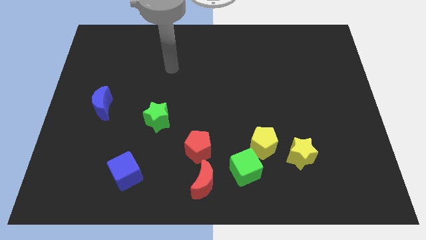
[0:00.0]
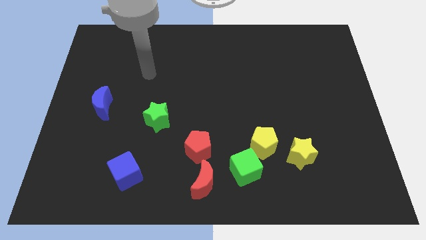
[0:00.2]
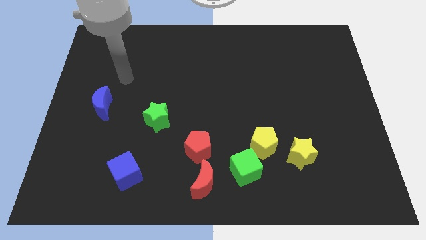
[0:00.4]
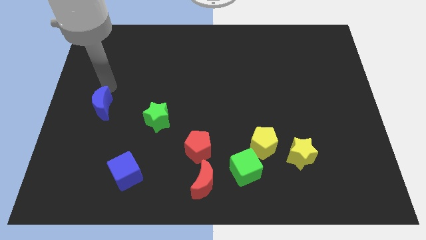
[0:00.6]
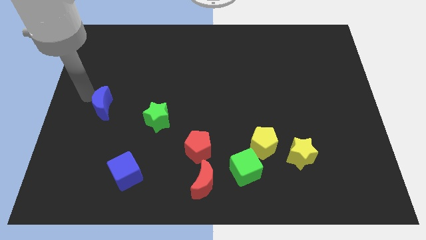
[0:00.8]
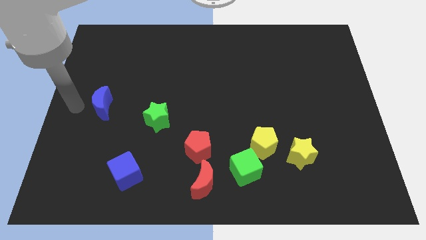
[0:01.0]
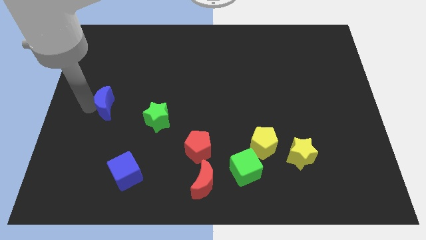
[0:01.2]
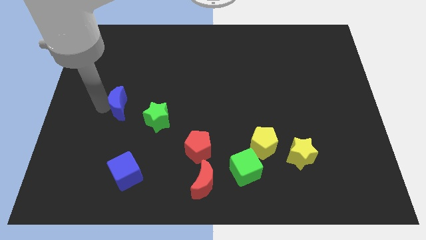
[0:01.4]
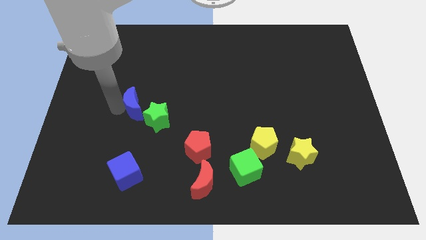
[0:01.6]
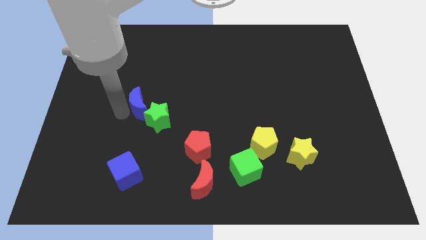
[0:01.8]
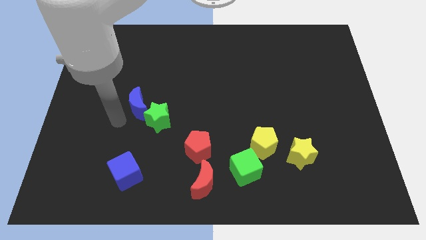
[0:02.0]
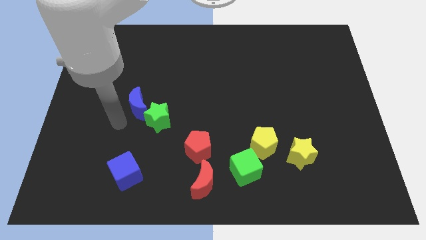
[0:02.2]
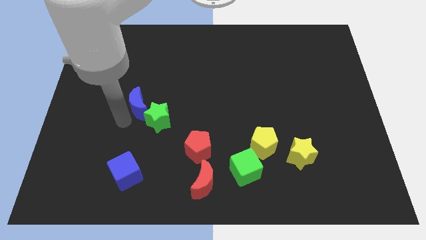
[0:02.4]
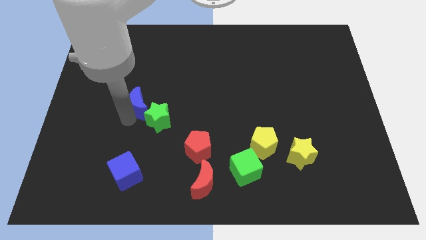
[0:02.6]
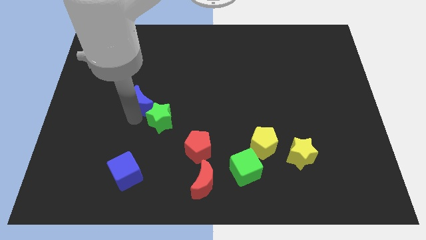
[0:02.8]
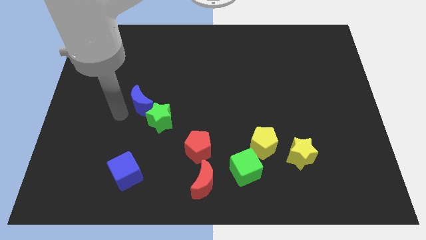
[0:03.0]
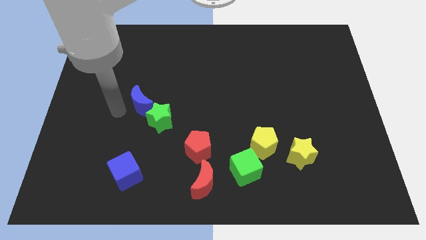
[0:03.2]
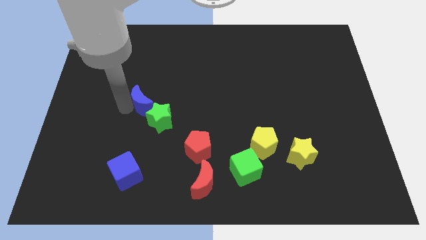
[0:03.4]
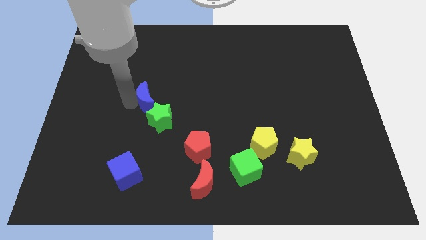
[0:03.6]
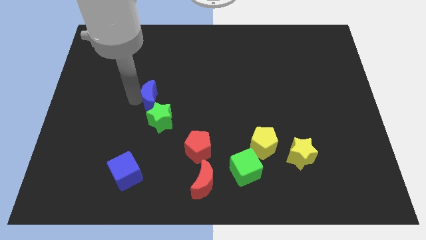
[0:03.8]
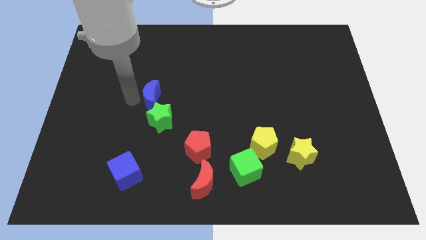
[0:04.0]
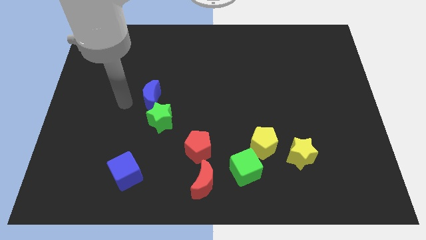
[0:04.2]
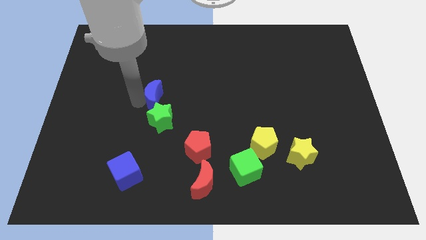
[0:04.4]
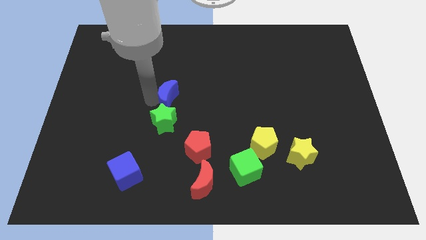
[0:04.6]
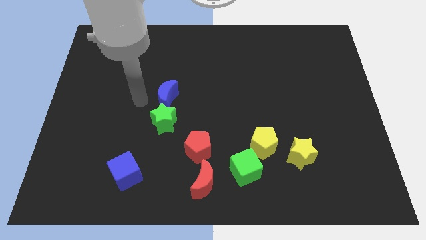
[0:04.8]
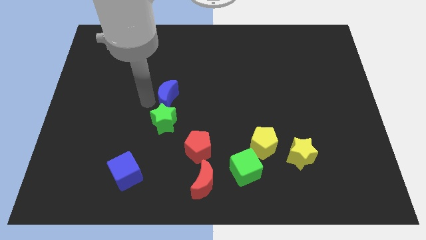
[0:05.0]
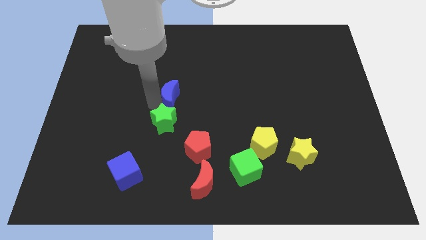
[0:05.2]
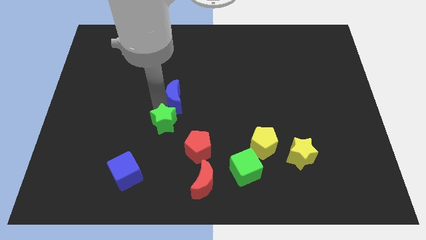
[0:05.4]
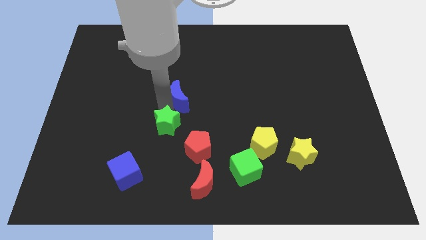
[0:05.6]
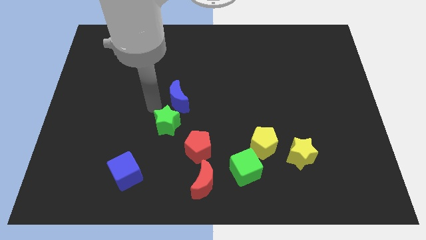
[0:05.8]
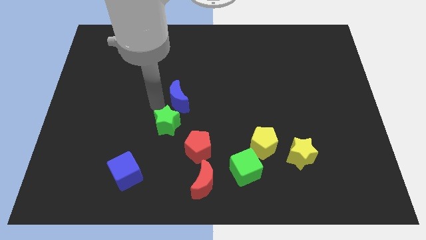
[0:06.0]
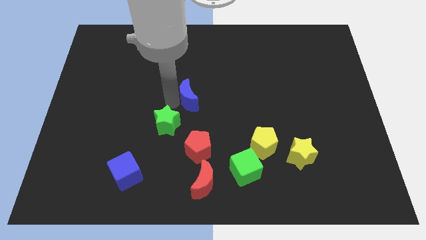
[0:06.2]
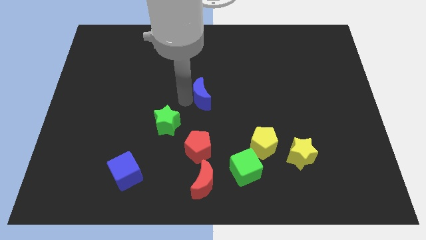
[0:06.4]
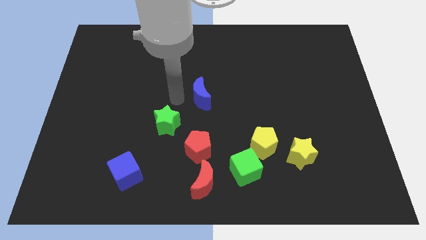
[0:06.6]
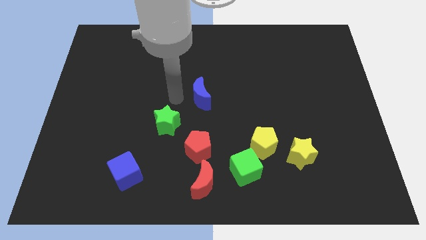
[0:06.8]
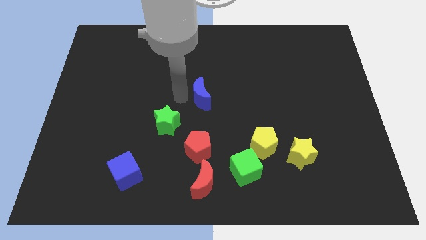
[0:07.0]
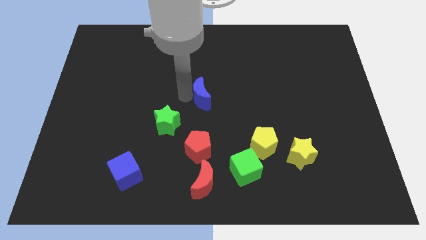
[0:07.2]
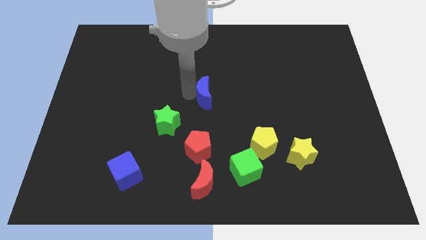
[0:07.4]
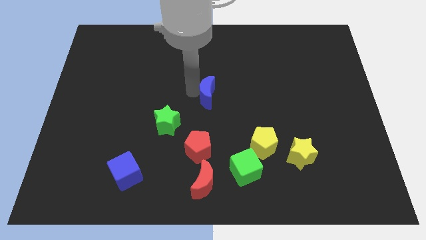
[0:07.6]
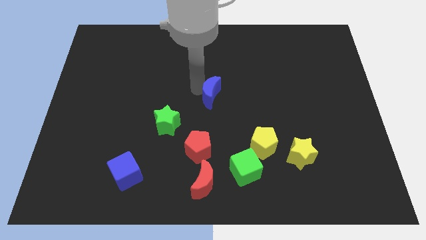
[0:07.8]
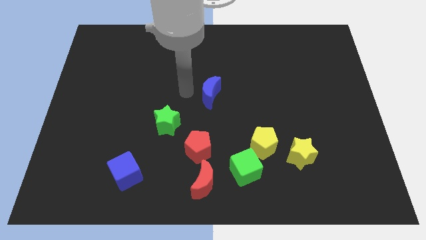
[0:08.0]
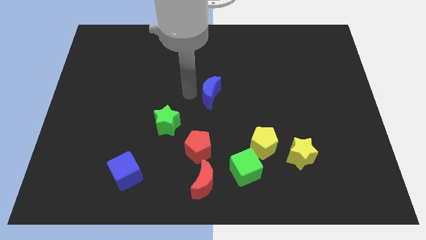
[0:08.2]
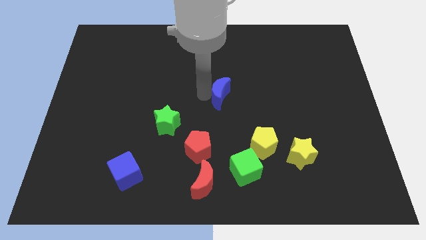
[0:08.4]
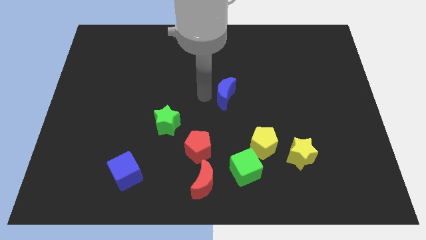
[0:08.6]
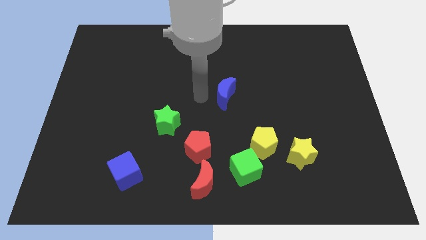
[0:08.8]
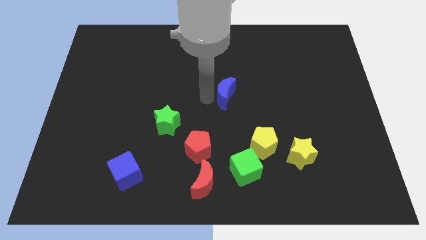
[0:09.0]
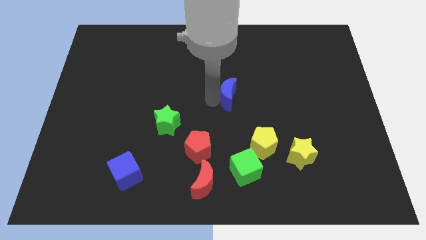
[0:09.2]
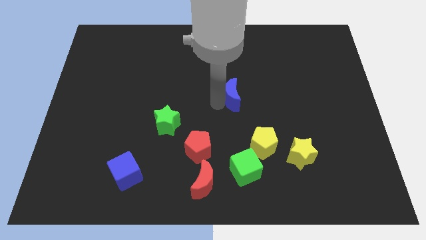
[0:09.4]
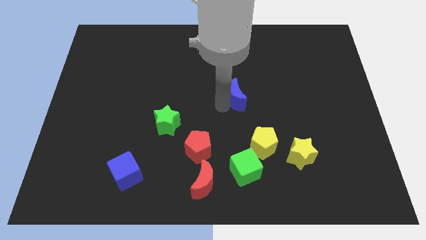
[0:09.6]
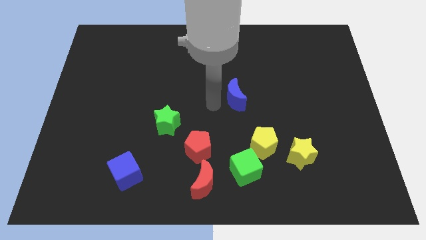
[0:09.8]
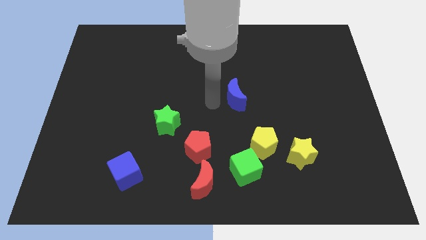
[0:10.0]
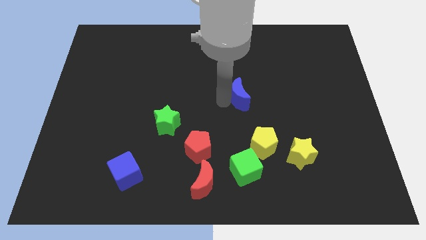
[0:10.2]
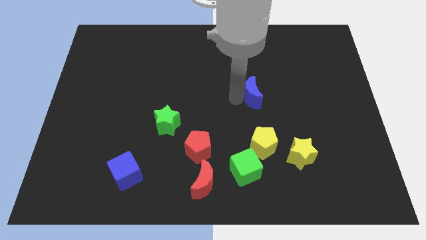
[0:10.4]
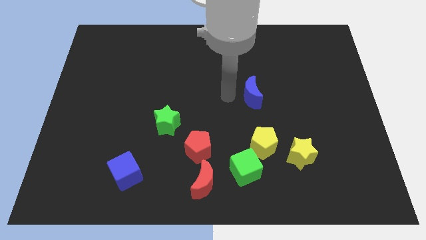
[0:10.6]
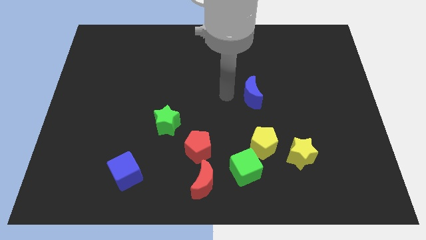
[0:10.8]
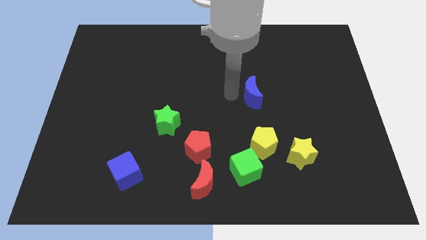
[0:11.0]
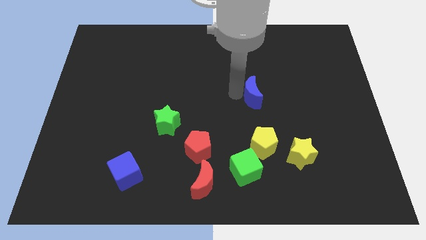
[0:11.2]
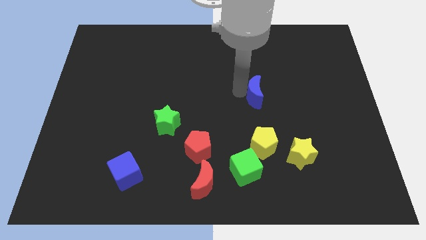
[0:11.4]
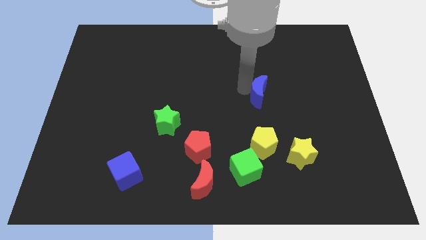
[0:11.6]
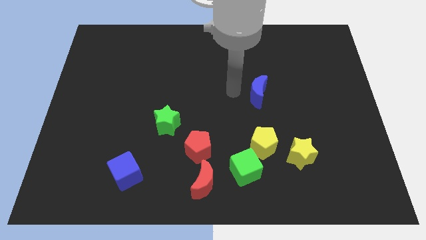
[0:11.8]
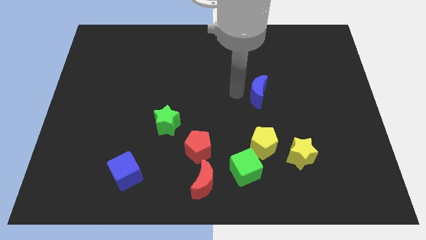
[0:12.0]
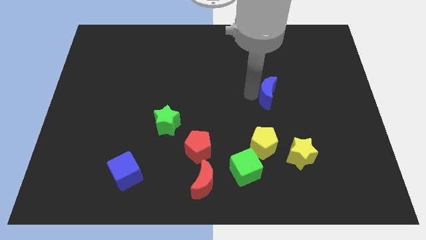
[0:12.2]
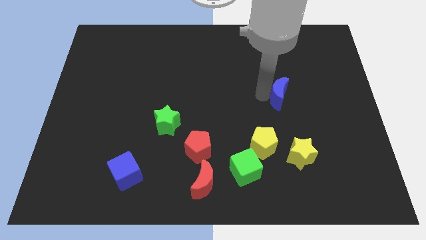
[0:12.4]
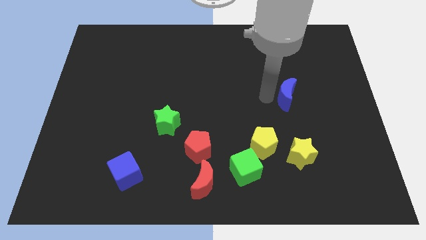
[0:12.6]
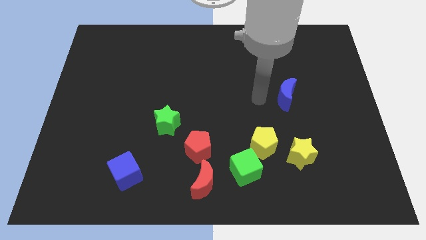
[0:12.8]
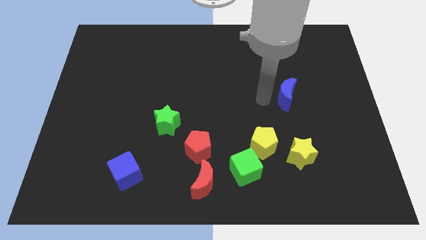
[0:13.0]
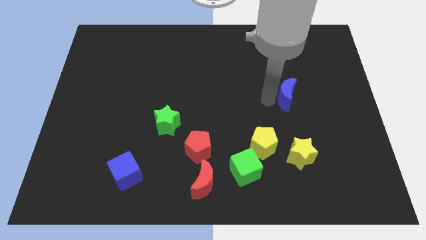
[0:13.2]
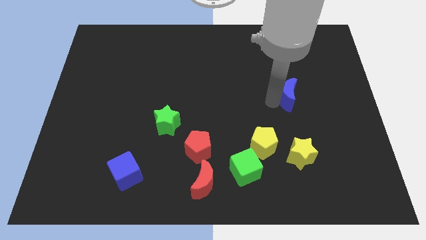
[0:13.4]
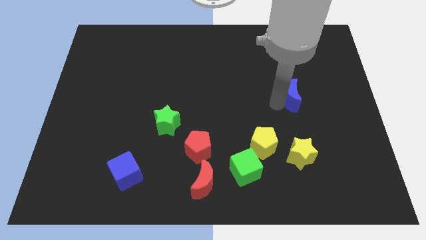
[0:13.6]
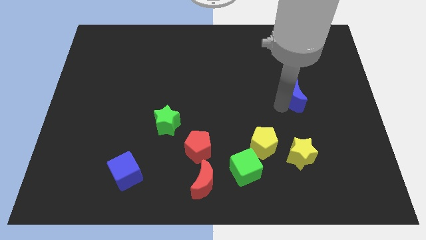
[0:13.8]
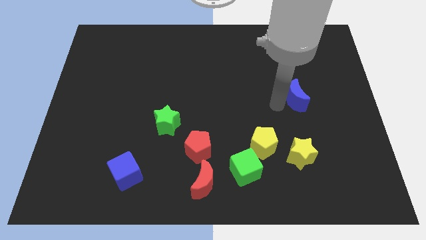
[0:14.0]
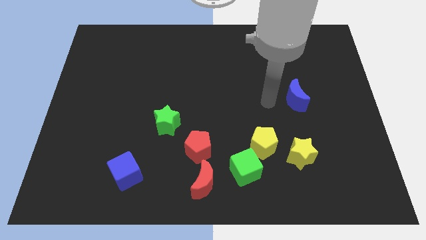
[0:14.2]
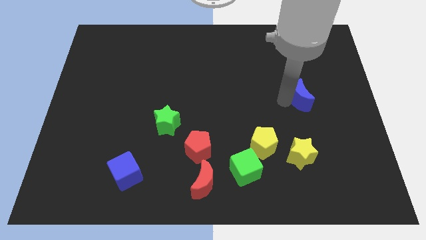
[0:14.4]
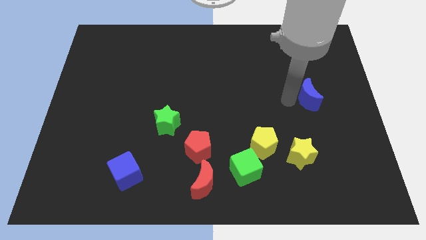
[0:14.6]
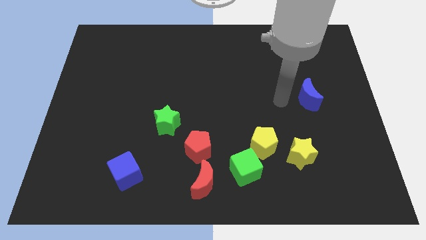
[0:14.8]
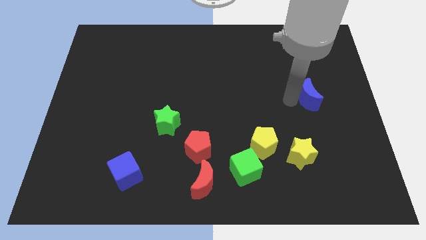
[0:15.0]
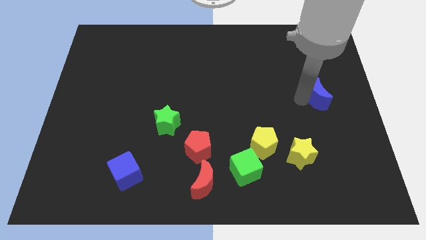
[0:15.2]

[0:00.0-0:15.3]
move the blue moon to the center right
